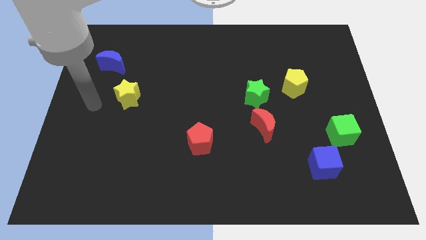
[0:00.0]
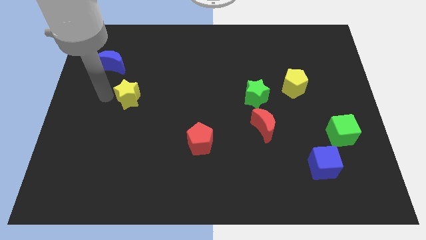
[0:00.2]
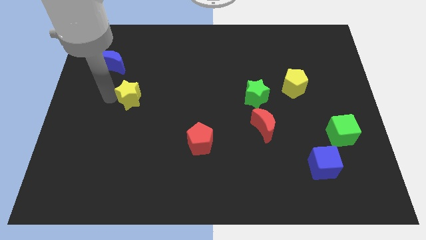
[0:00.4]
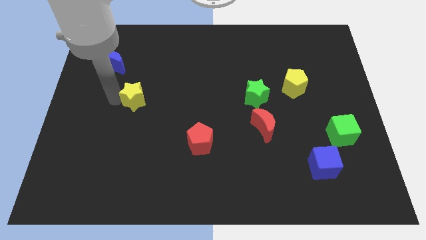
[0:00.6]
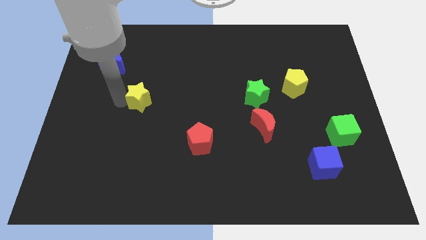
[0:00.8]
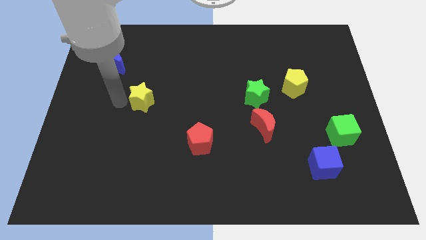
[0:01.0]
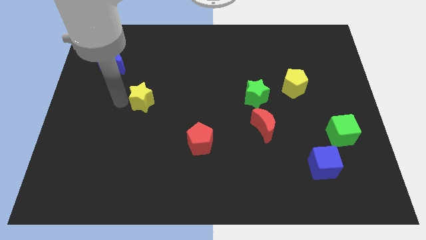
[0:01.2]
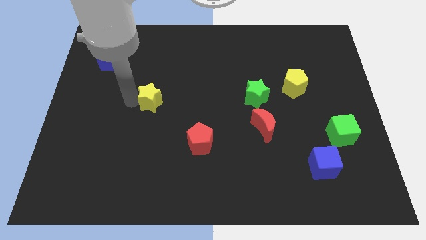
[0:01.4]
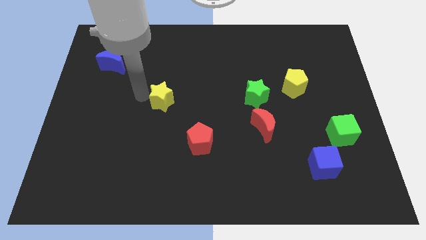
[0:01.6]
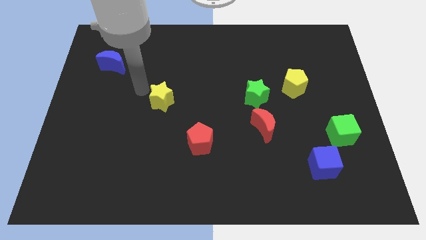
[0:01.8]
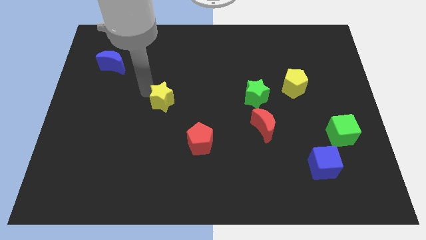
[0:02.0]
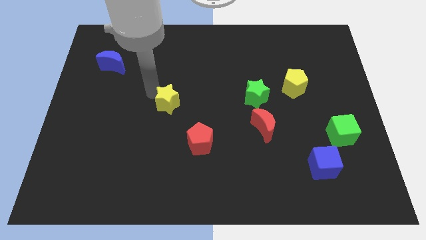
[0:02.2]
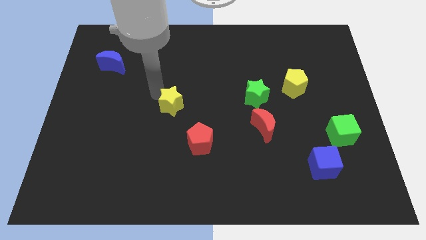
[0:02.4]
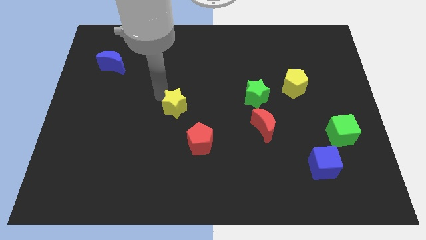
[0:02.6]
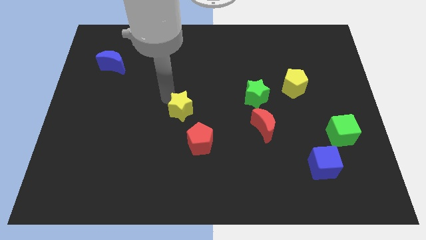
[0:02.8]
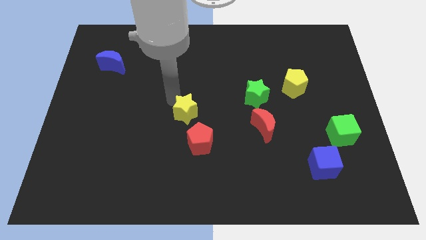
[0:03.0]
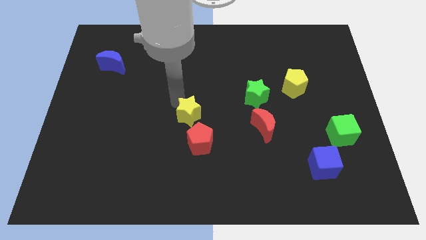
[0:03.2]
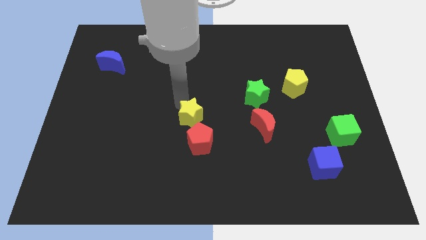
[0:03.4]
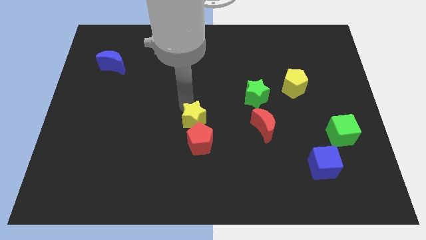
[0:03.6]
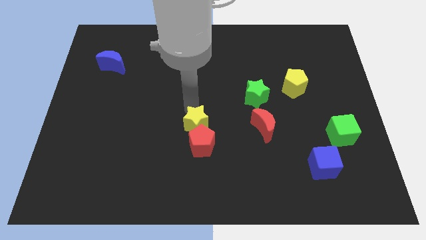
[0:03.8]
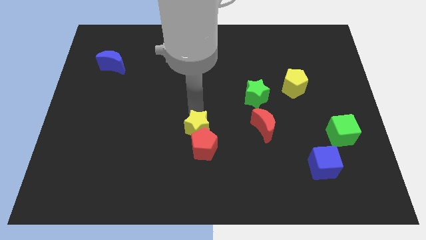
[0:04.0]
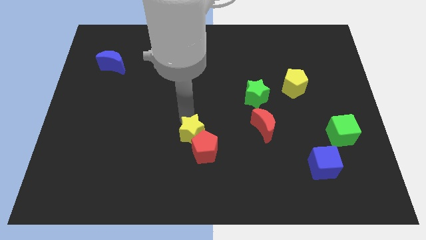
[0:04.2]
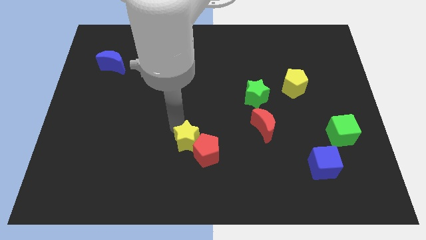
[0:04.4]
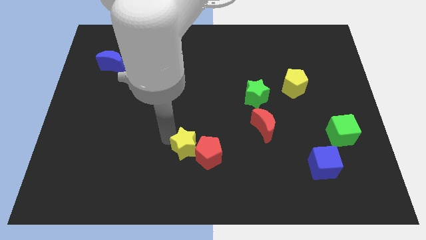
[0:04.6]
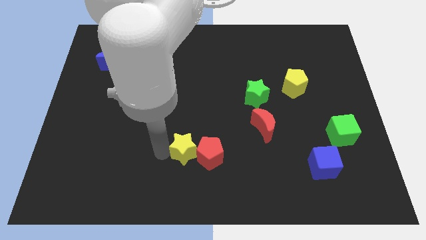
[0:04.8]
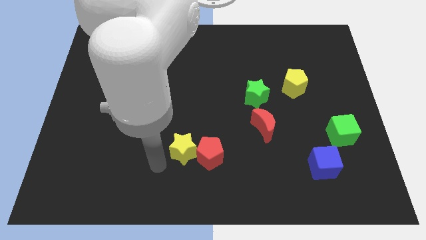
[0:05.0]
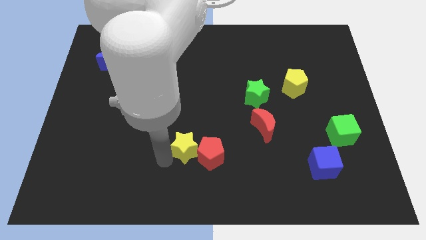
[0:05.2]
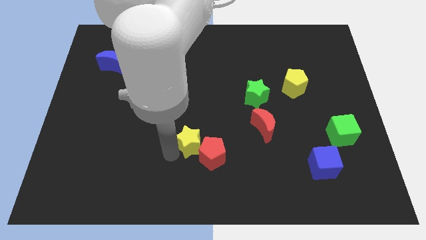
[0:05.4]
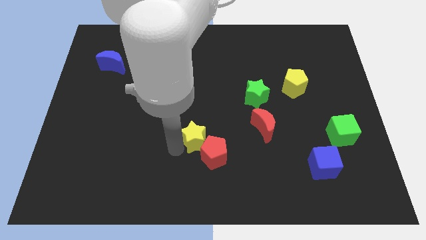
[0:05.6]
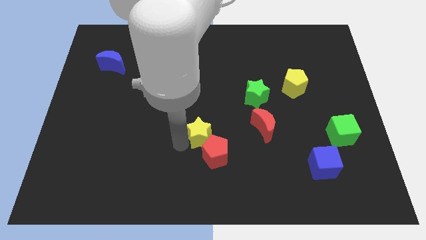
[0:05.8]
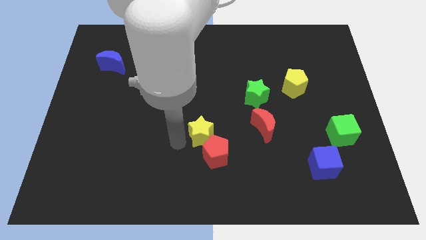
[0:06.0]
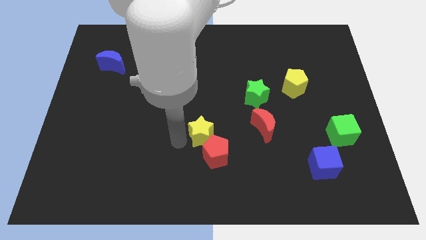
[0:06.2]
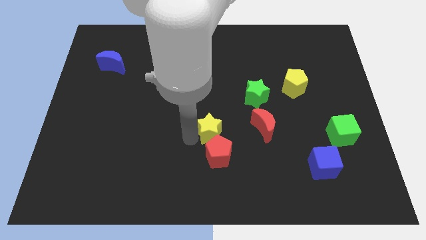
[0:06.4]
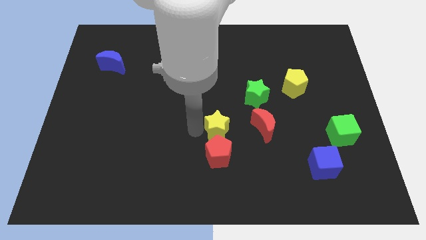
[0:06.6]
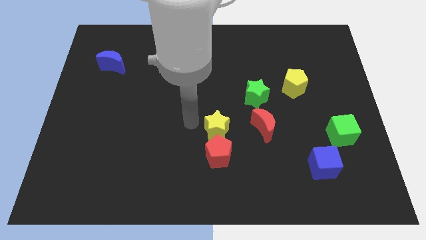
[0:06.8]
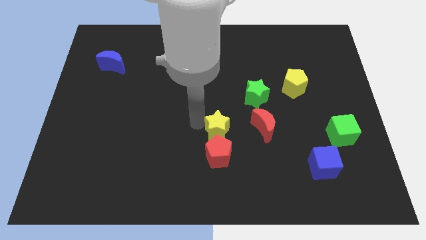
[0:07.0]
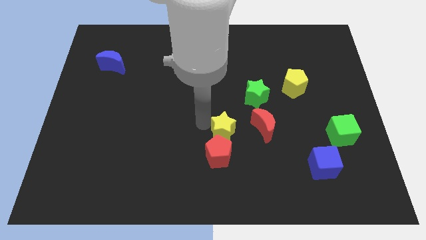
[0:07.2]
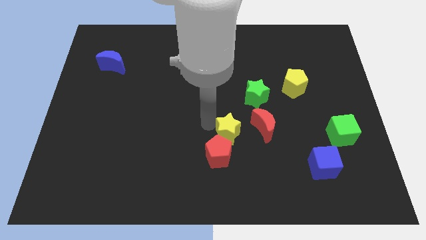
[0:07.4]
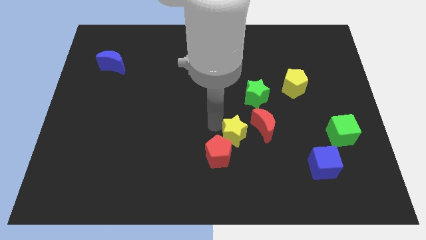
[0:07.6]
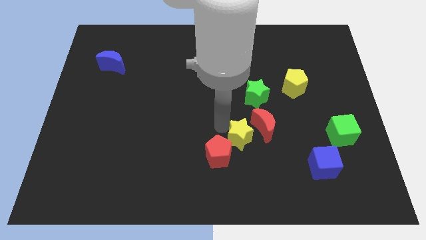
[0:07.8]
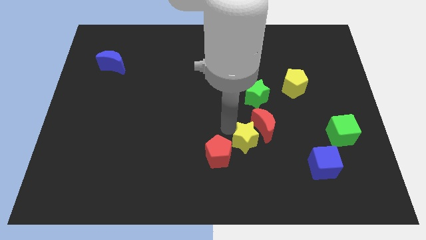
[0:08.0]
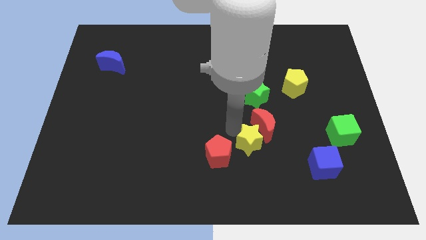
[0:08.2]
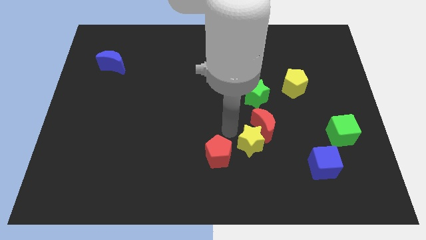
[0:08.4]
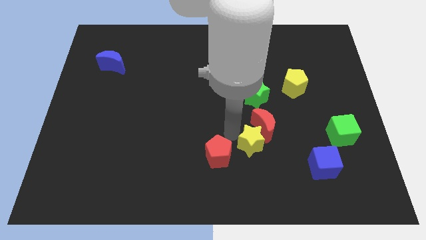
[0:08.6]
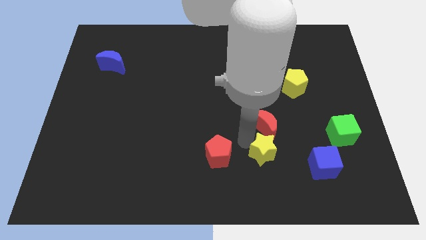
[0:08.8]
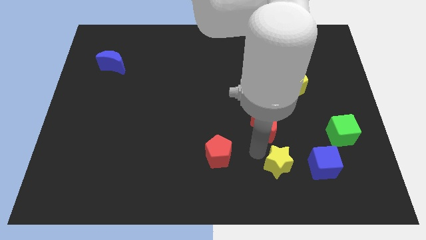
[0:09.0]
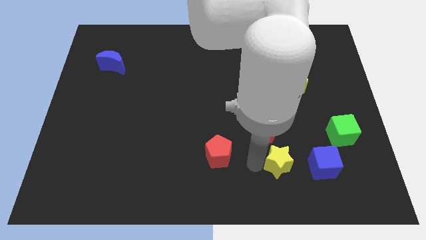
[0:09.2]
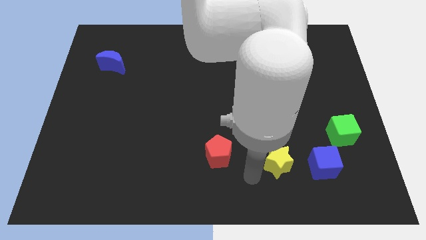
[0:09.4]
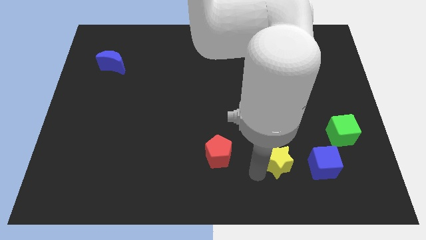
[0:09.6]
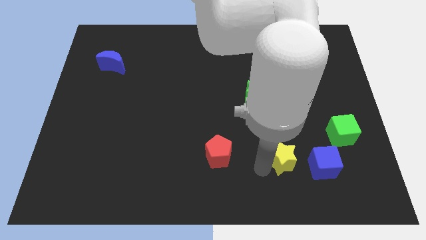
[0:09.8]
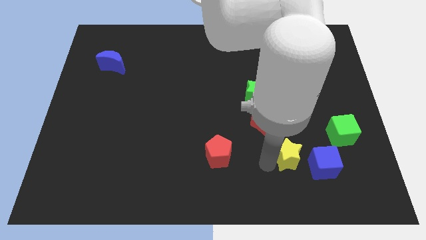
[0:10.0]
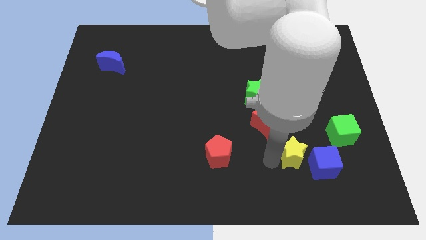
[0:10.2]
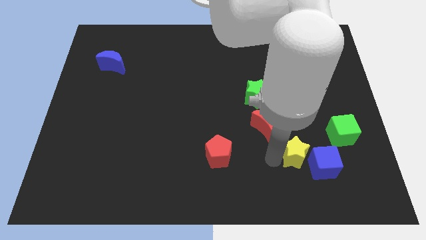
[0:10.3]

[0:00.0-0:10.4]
slide the yellow star close to the blue cube

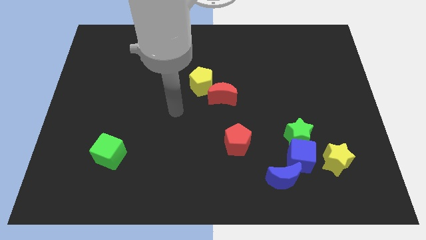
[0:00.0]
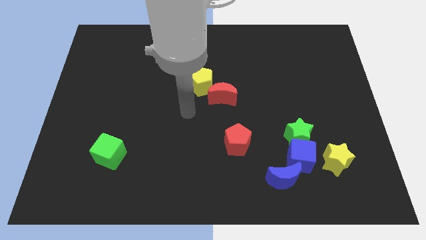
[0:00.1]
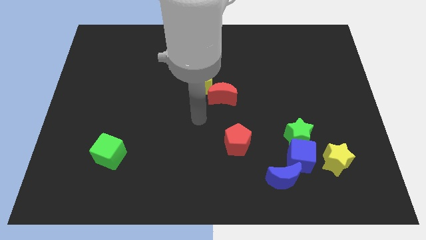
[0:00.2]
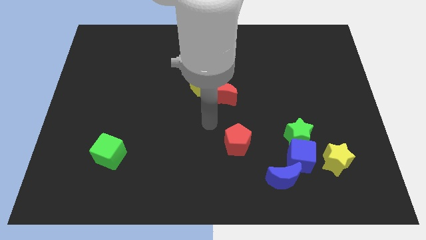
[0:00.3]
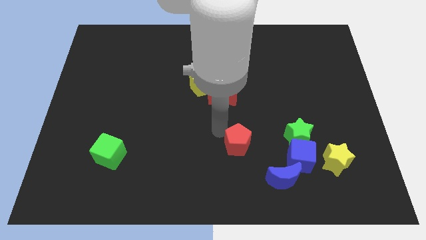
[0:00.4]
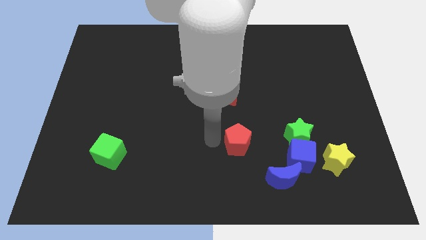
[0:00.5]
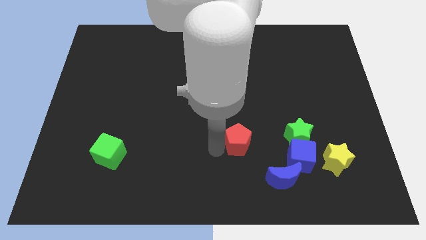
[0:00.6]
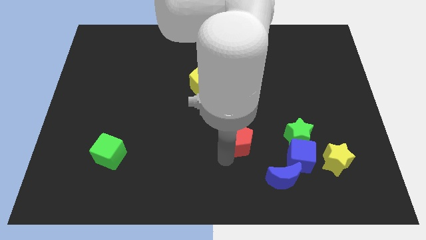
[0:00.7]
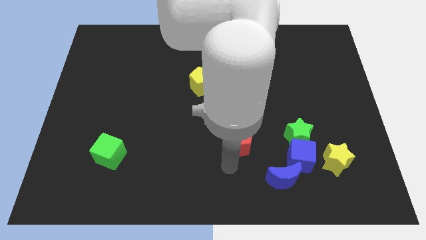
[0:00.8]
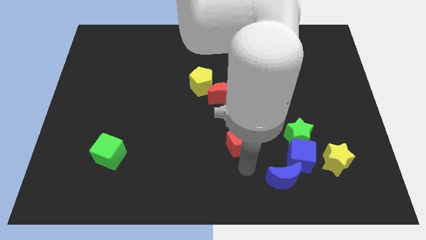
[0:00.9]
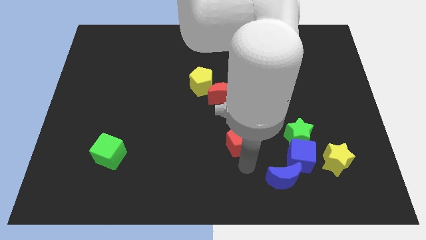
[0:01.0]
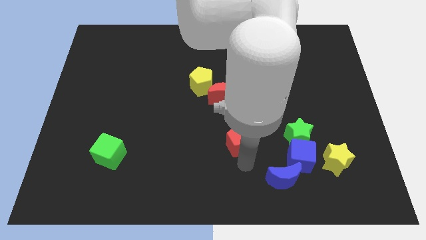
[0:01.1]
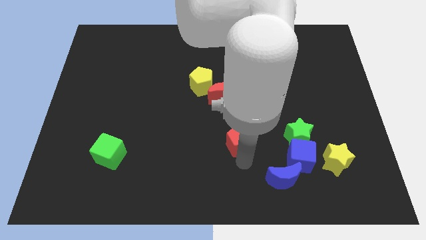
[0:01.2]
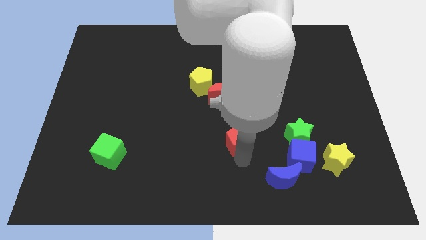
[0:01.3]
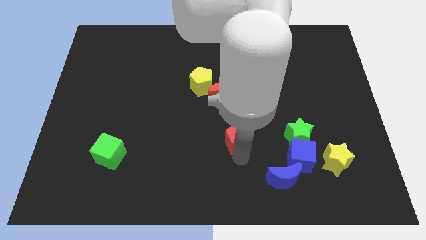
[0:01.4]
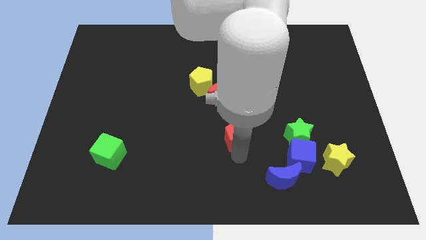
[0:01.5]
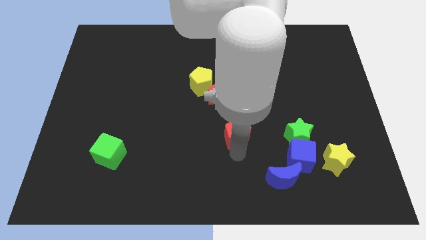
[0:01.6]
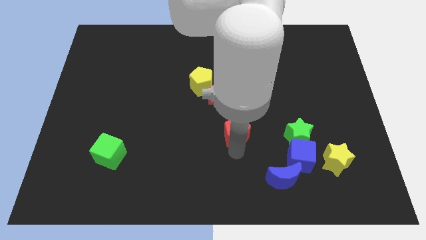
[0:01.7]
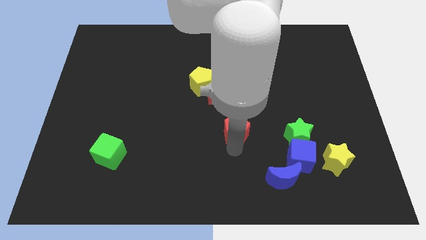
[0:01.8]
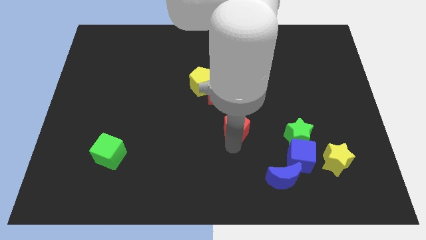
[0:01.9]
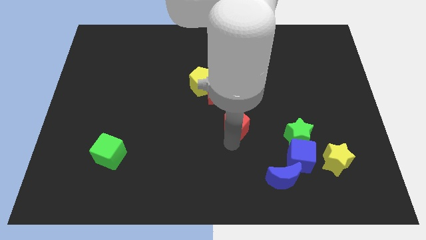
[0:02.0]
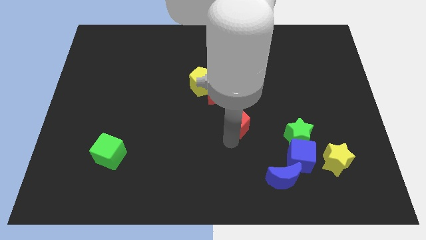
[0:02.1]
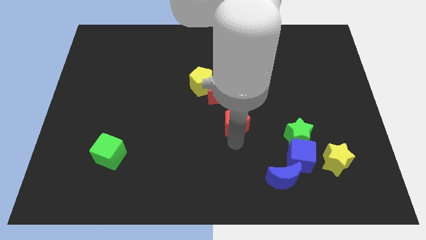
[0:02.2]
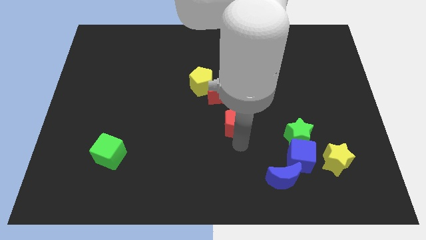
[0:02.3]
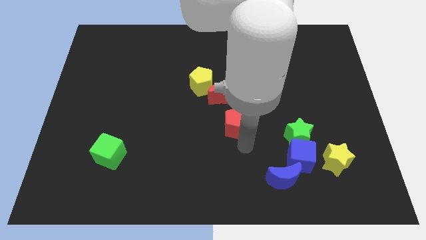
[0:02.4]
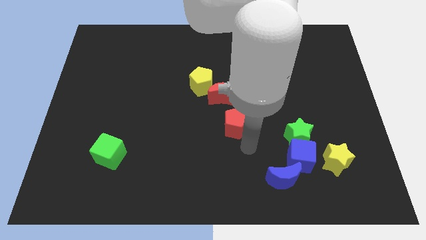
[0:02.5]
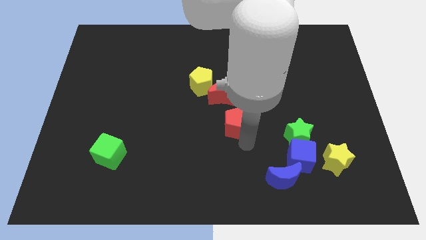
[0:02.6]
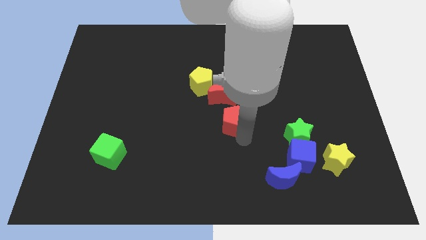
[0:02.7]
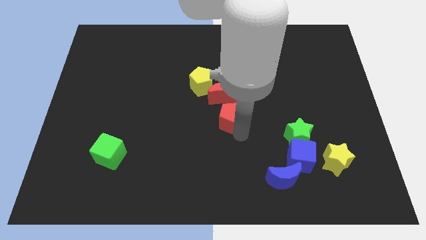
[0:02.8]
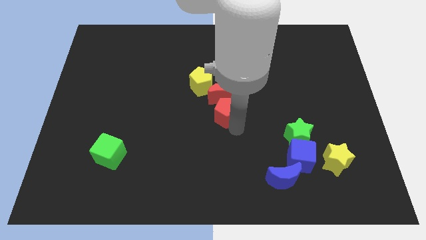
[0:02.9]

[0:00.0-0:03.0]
slide the red pentagon to the red moon
